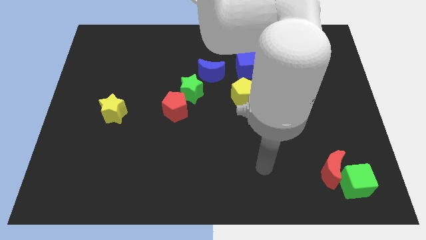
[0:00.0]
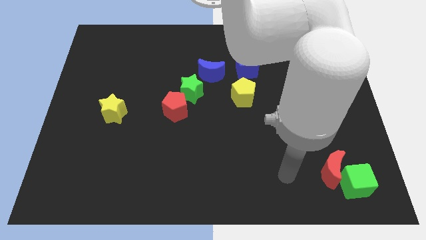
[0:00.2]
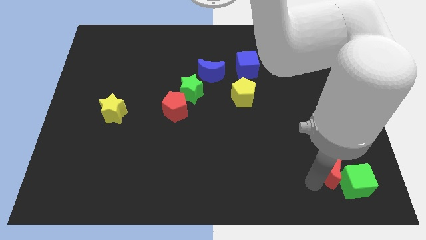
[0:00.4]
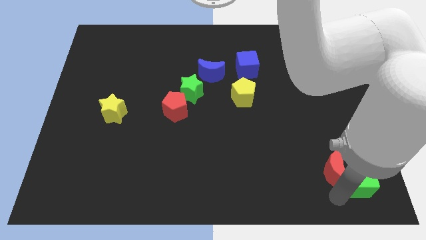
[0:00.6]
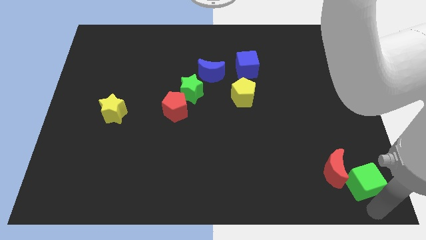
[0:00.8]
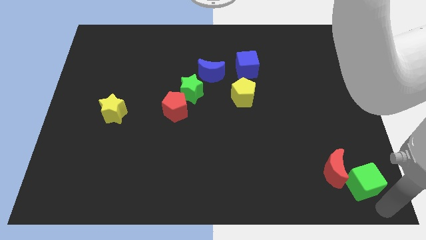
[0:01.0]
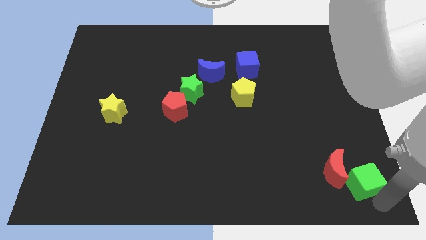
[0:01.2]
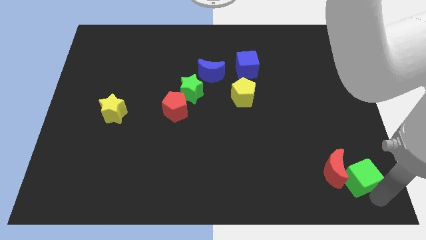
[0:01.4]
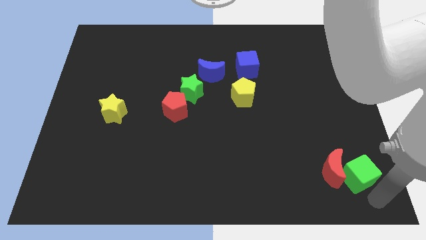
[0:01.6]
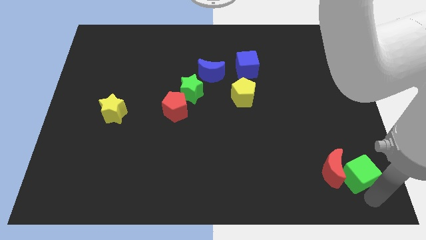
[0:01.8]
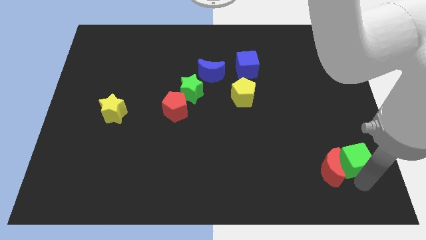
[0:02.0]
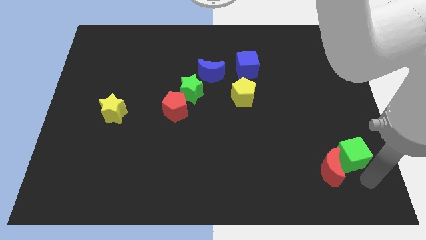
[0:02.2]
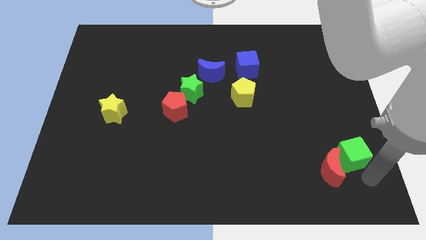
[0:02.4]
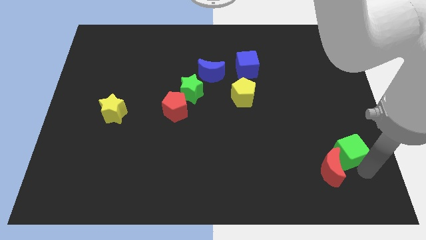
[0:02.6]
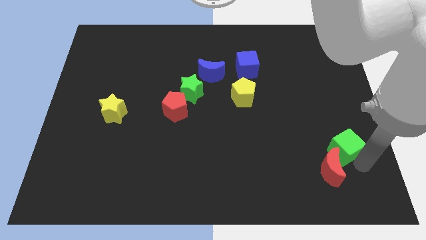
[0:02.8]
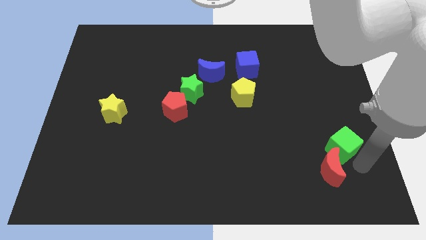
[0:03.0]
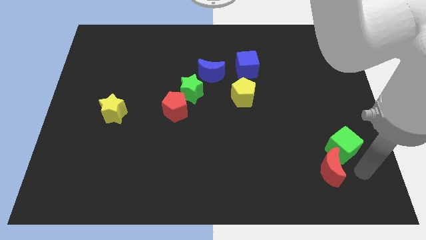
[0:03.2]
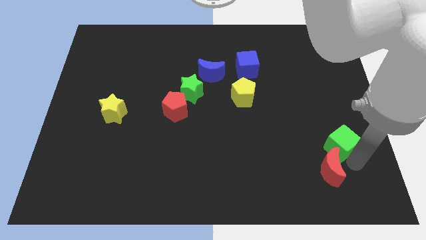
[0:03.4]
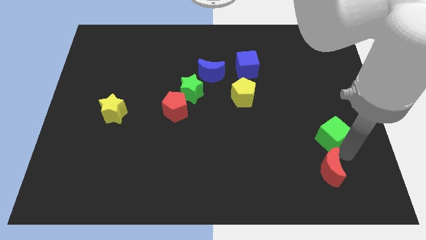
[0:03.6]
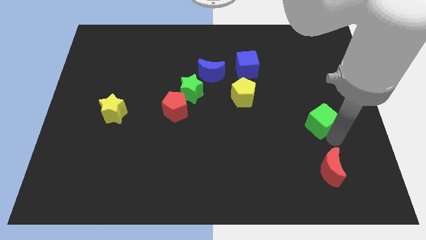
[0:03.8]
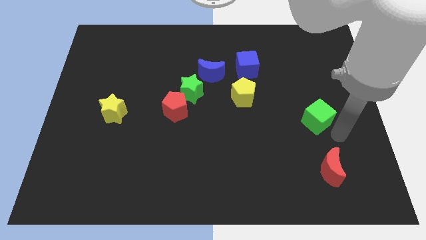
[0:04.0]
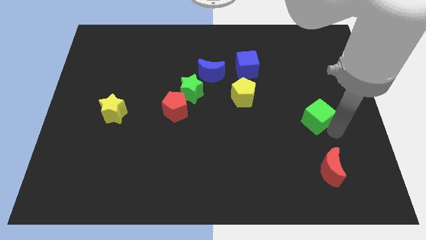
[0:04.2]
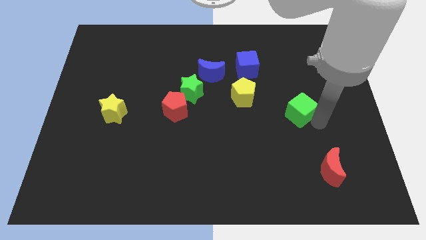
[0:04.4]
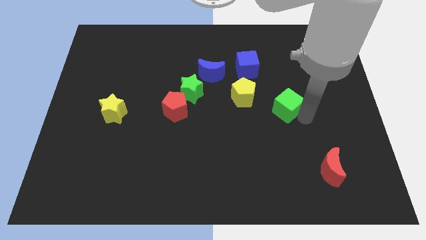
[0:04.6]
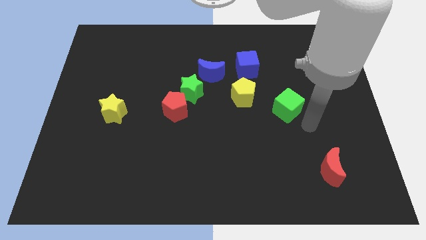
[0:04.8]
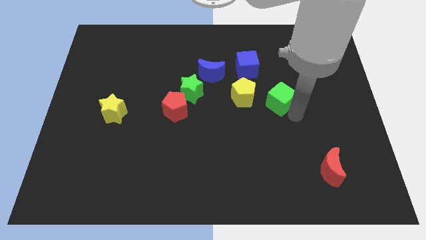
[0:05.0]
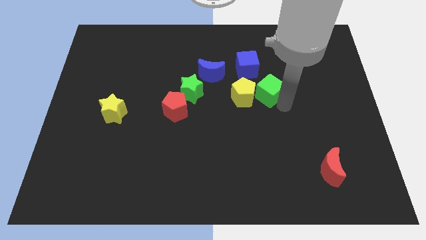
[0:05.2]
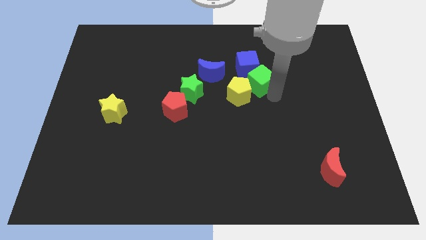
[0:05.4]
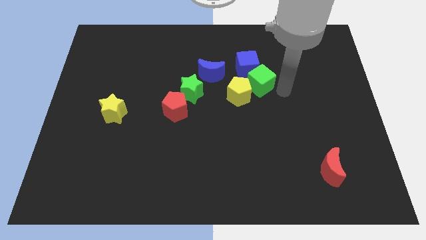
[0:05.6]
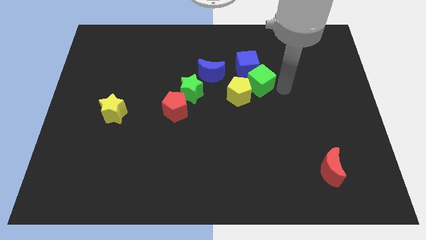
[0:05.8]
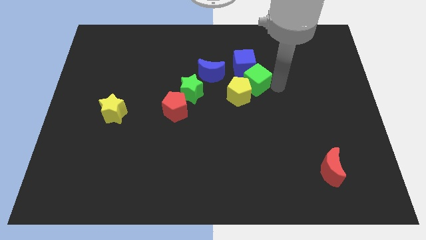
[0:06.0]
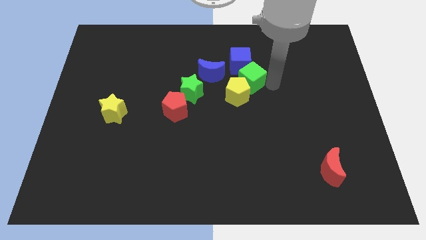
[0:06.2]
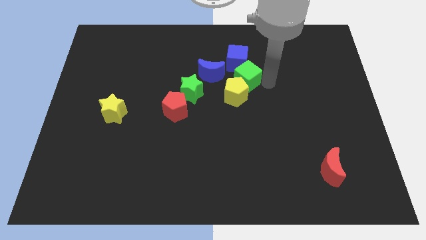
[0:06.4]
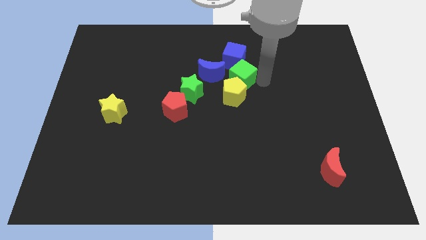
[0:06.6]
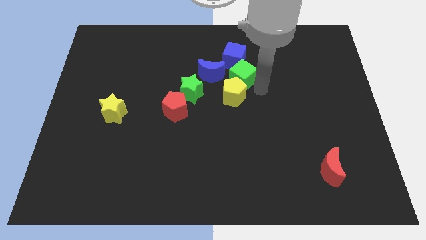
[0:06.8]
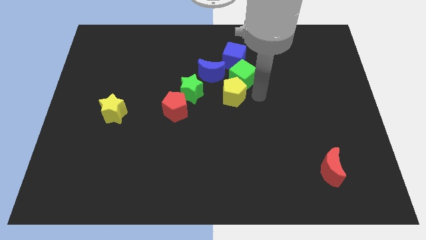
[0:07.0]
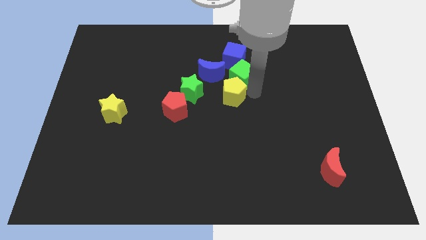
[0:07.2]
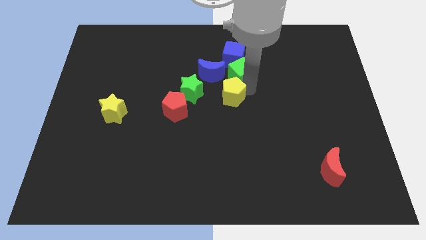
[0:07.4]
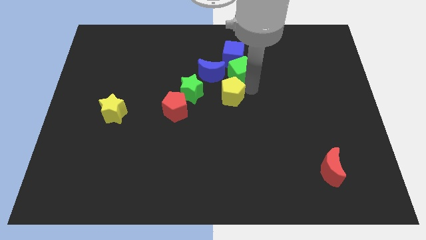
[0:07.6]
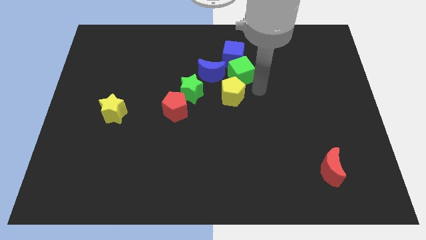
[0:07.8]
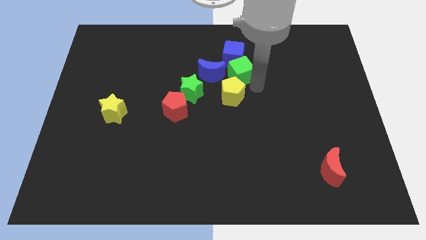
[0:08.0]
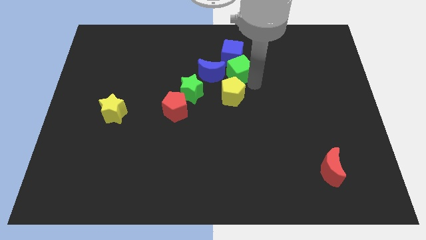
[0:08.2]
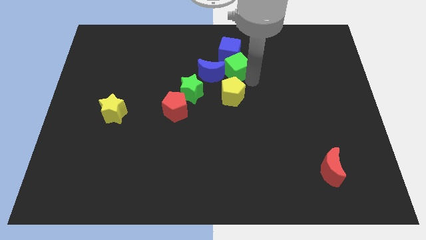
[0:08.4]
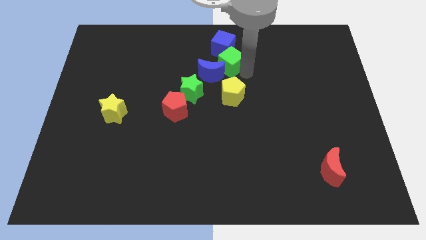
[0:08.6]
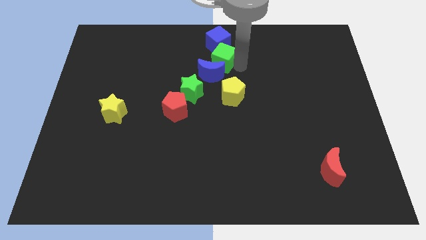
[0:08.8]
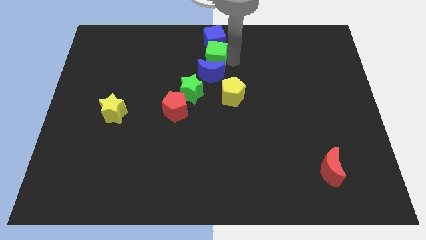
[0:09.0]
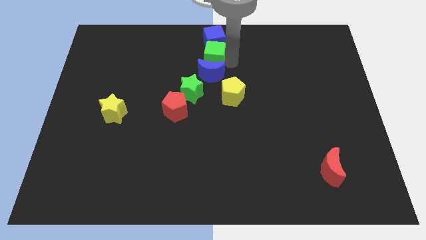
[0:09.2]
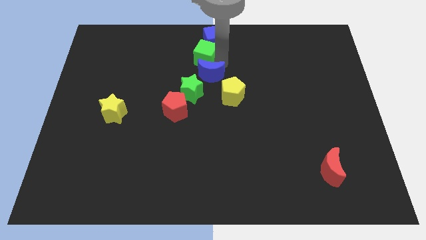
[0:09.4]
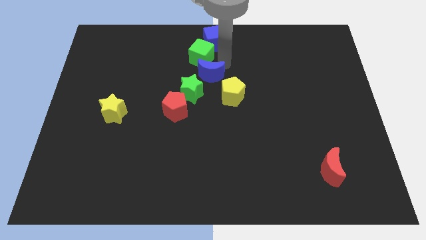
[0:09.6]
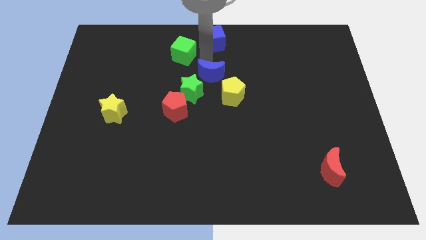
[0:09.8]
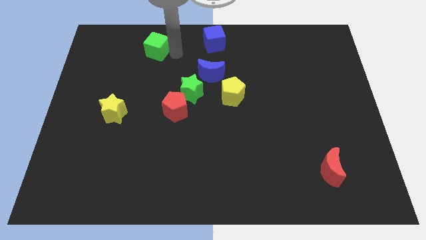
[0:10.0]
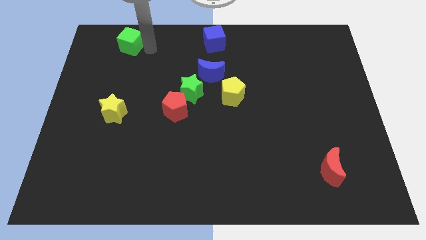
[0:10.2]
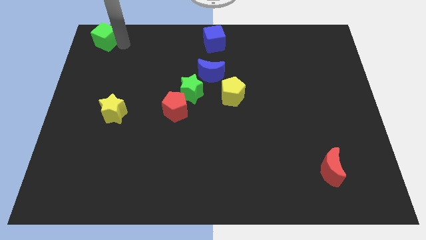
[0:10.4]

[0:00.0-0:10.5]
move the green cube to the top left of the board
